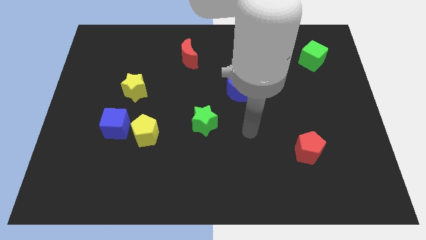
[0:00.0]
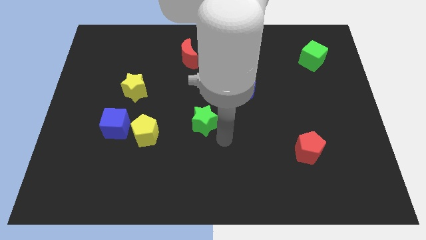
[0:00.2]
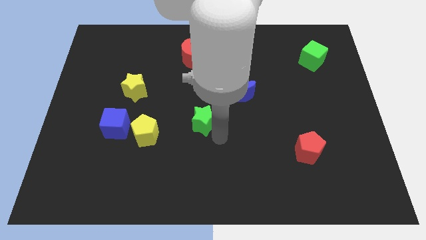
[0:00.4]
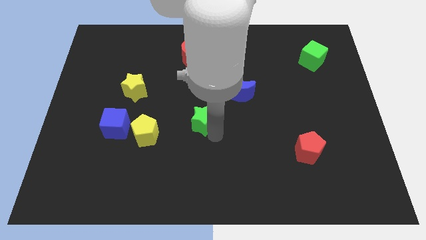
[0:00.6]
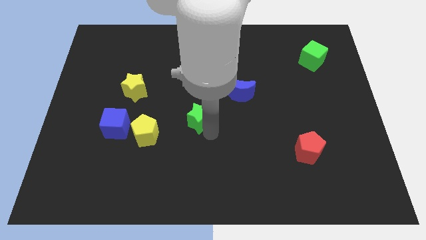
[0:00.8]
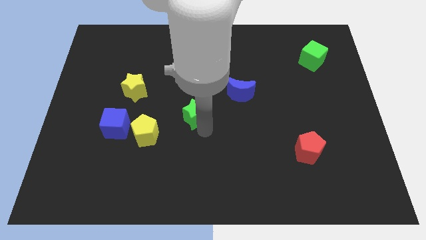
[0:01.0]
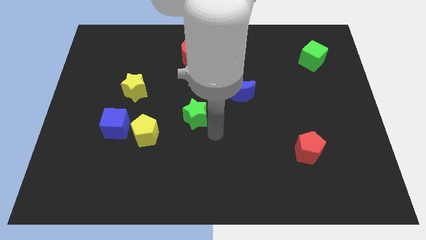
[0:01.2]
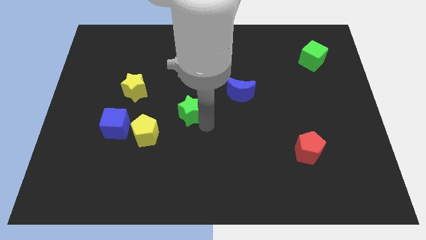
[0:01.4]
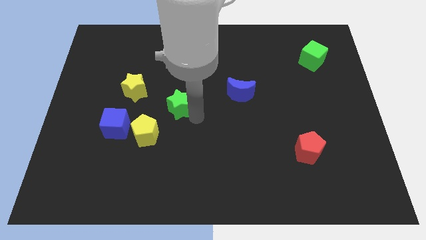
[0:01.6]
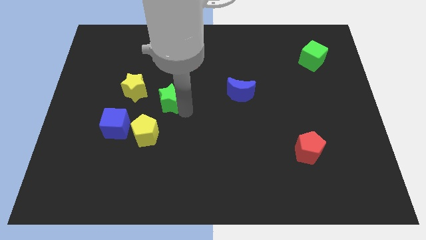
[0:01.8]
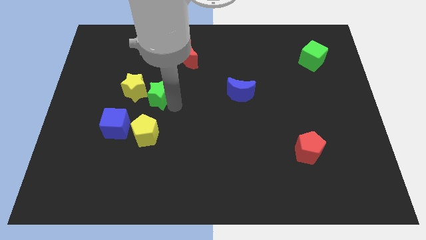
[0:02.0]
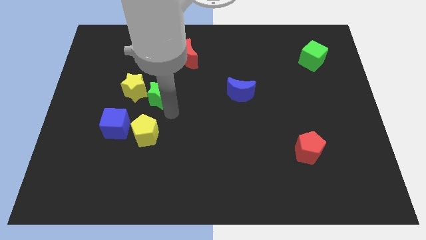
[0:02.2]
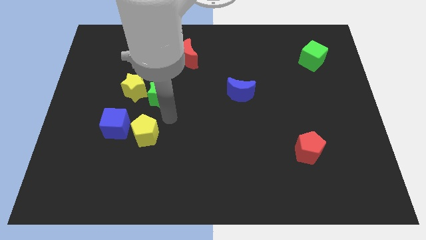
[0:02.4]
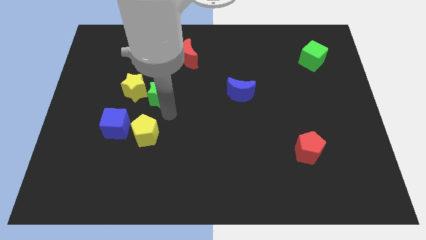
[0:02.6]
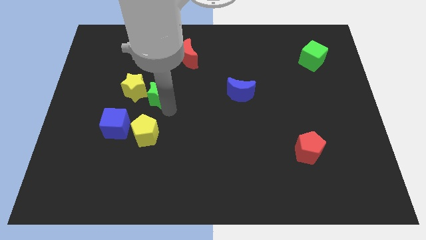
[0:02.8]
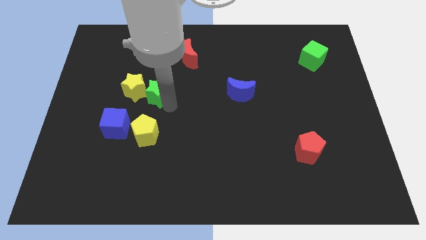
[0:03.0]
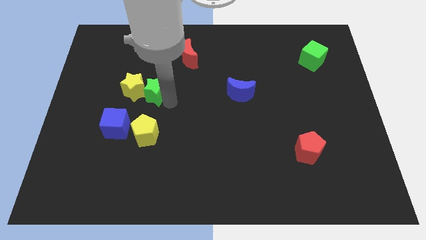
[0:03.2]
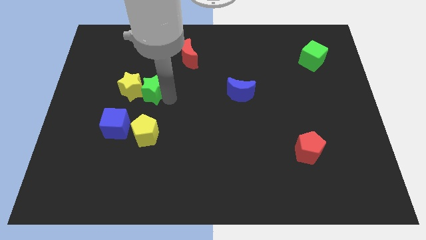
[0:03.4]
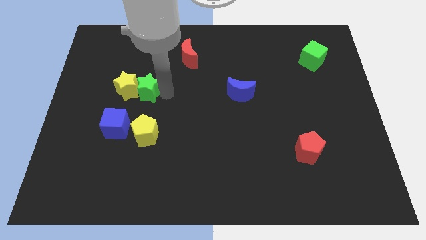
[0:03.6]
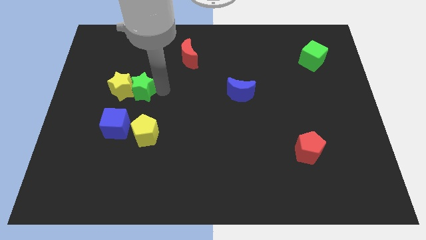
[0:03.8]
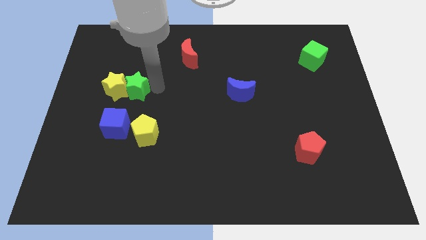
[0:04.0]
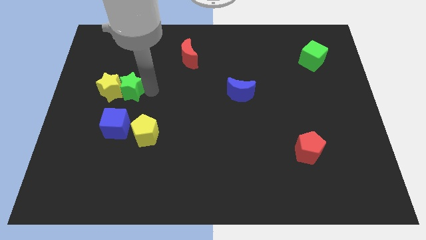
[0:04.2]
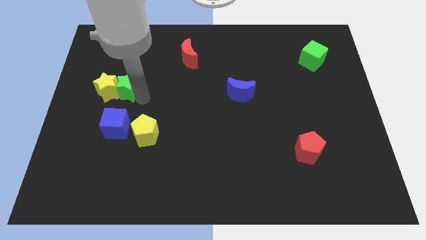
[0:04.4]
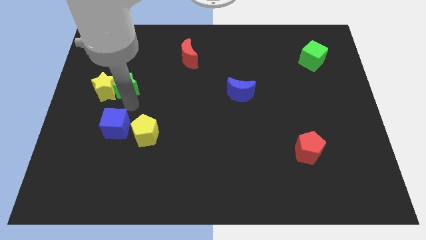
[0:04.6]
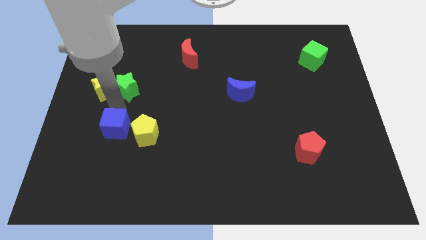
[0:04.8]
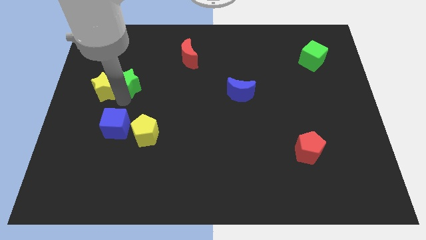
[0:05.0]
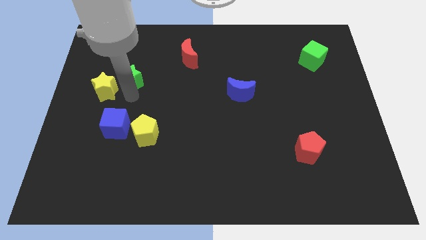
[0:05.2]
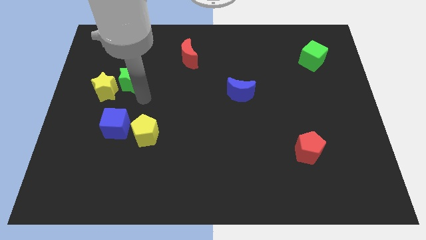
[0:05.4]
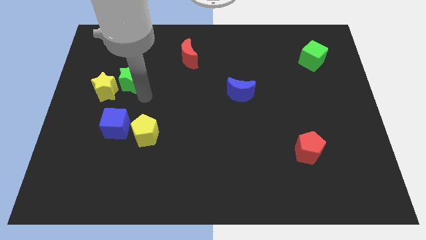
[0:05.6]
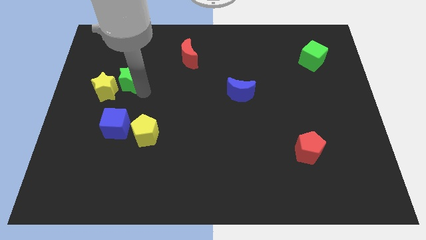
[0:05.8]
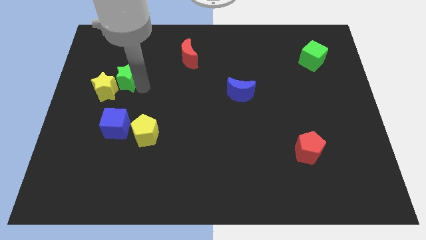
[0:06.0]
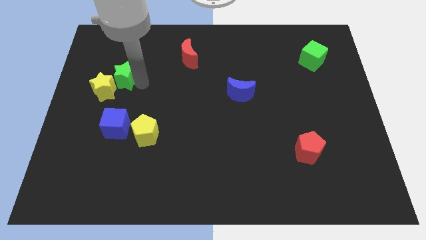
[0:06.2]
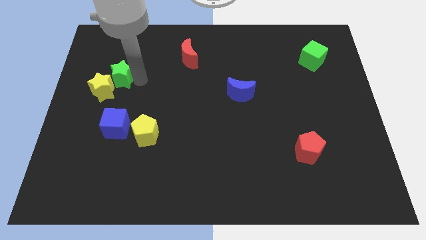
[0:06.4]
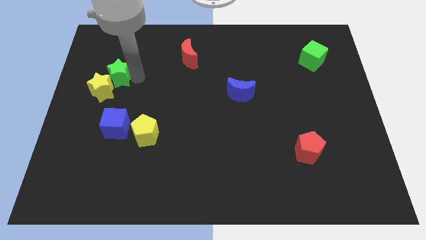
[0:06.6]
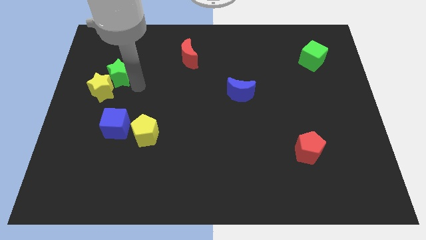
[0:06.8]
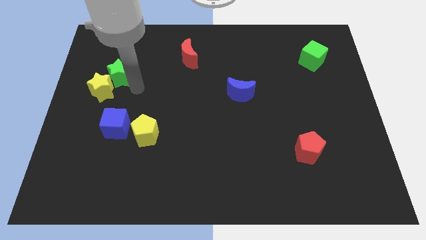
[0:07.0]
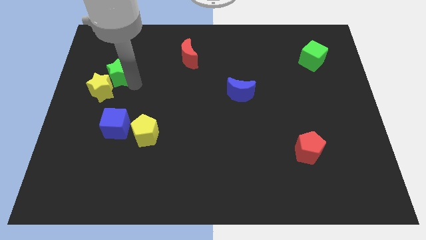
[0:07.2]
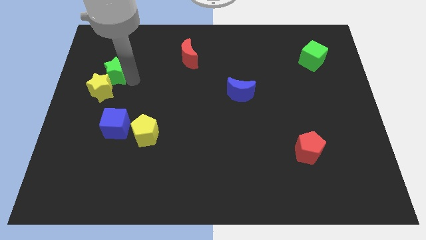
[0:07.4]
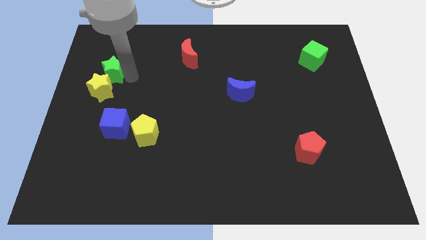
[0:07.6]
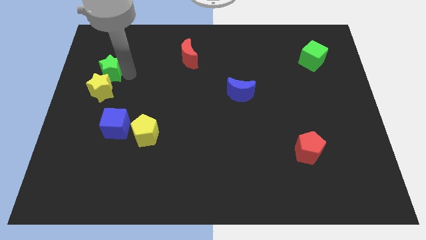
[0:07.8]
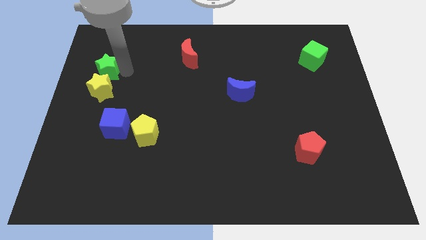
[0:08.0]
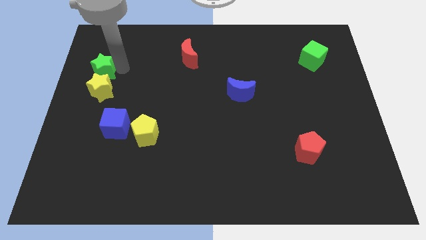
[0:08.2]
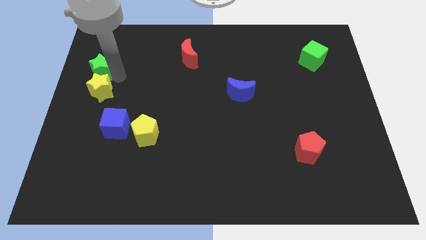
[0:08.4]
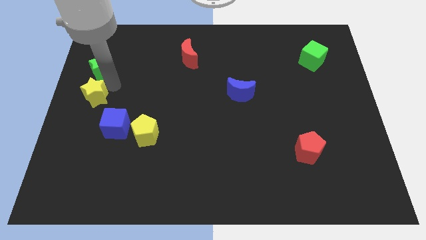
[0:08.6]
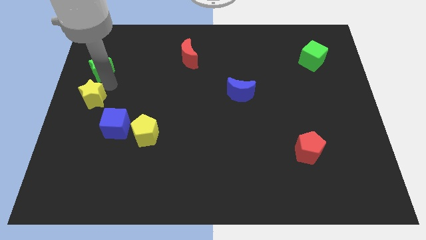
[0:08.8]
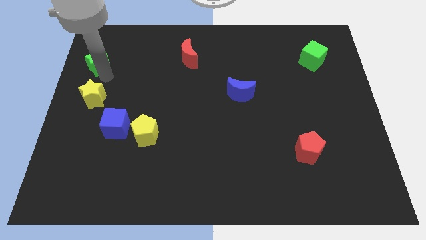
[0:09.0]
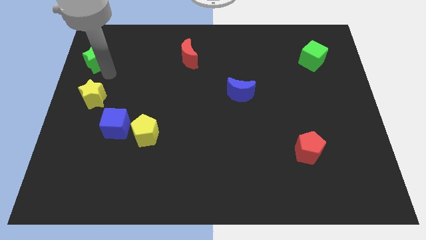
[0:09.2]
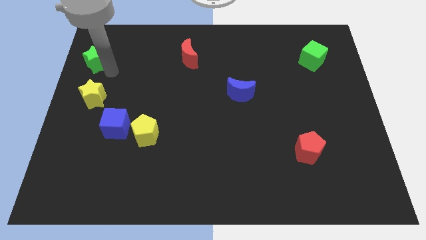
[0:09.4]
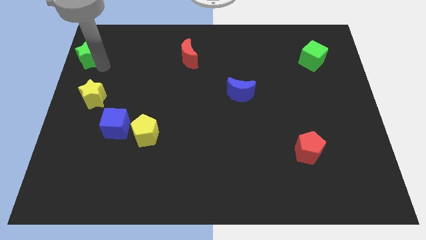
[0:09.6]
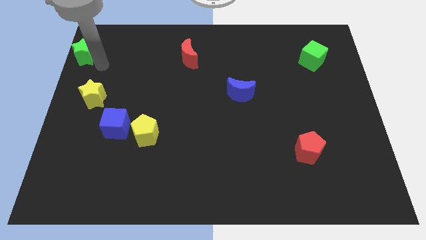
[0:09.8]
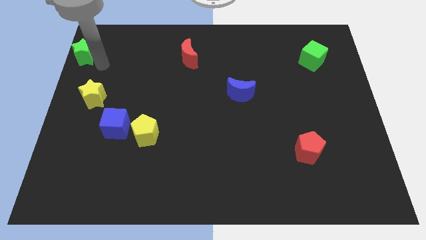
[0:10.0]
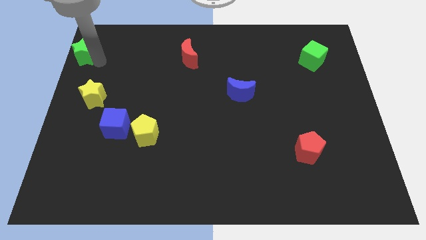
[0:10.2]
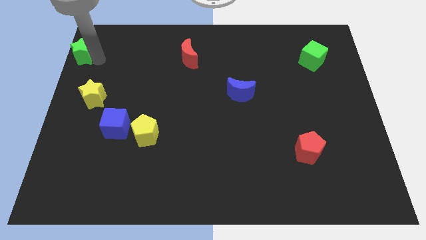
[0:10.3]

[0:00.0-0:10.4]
move the green star to the upper left corner
